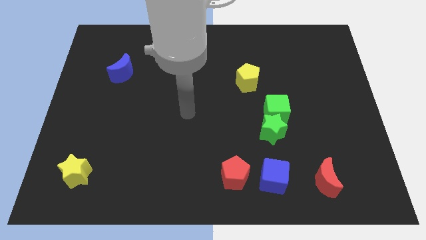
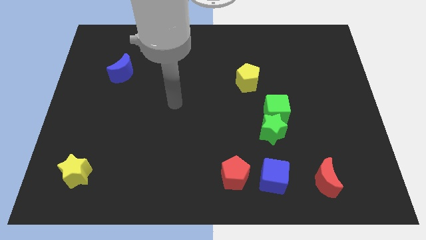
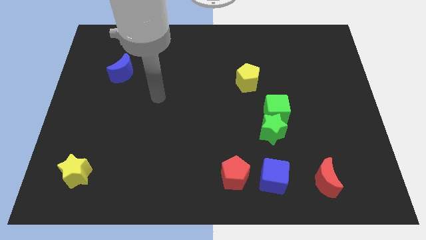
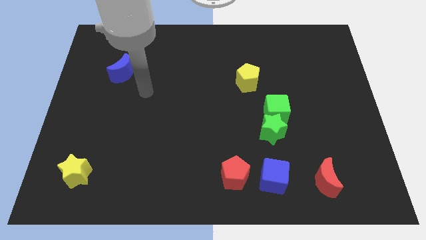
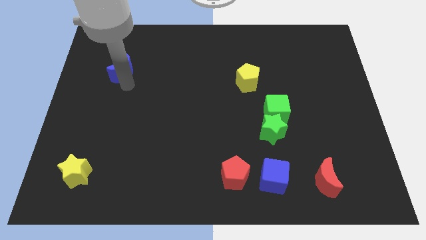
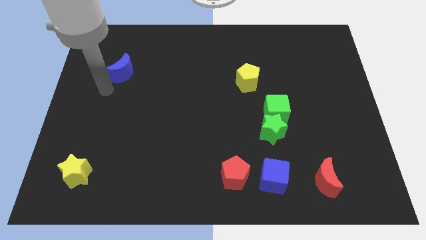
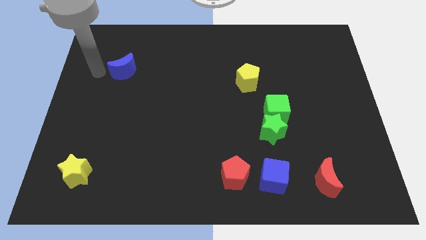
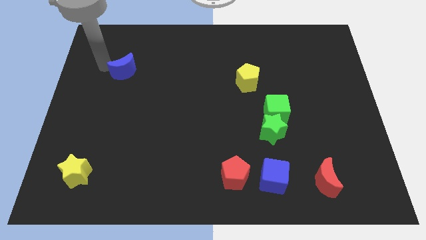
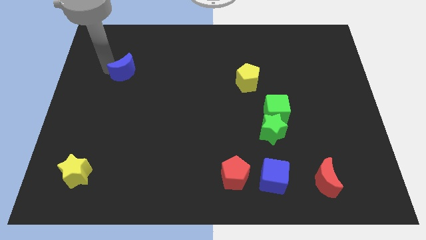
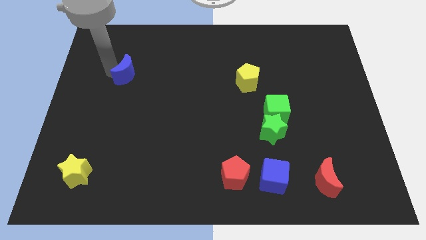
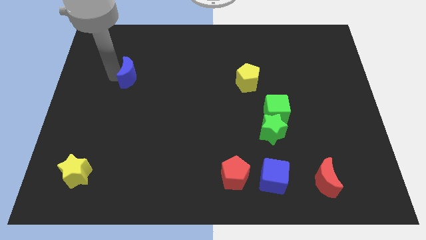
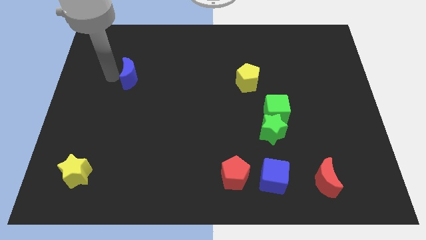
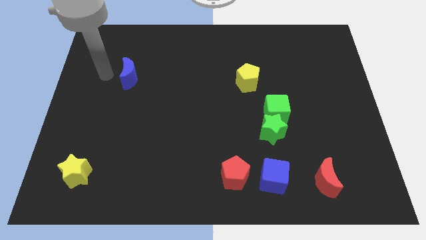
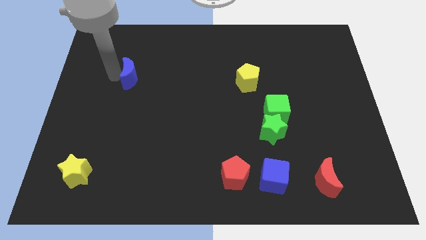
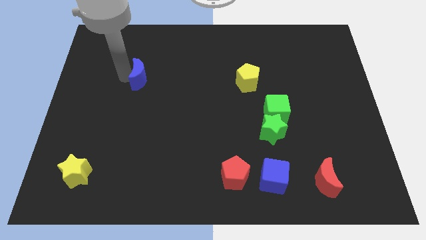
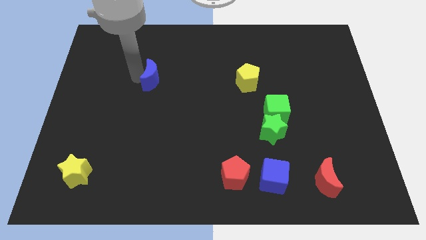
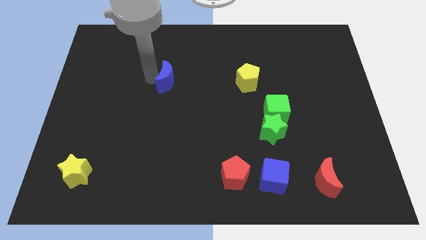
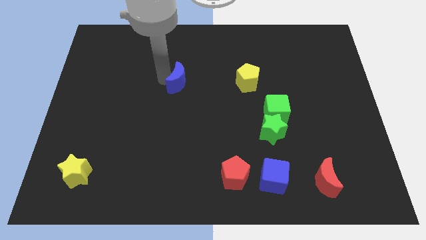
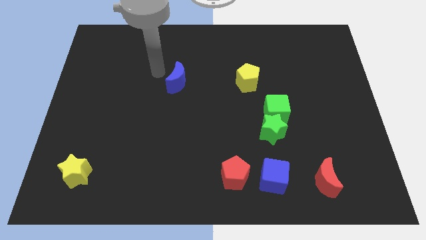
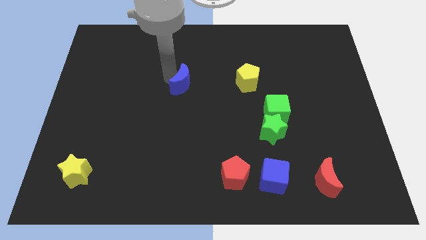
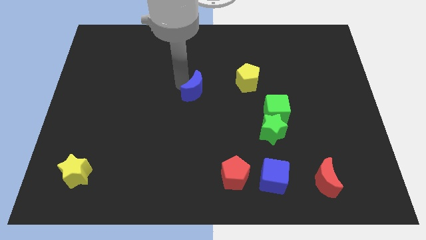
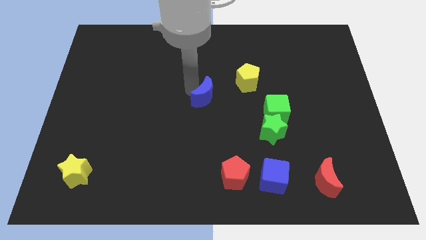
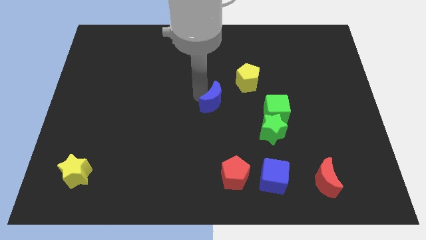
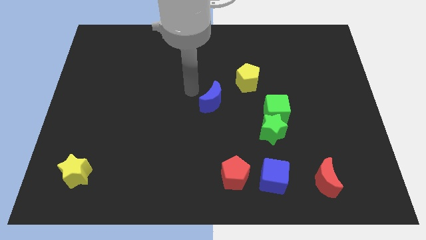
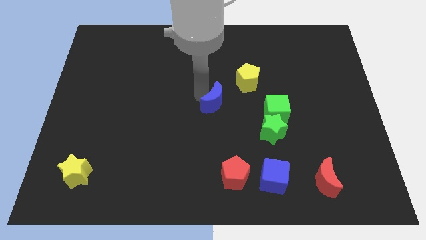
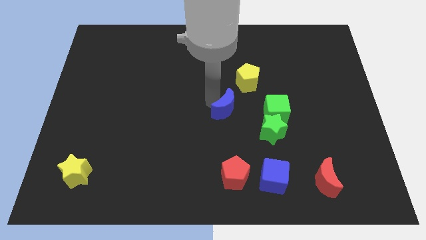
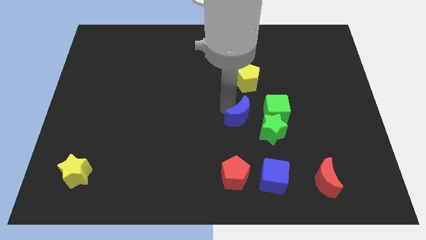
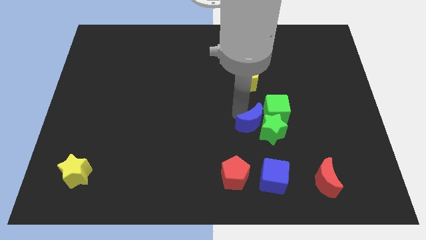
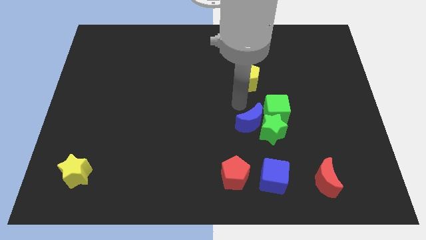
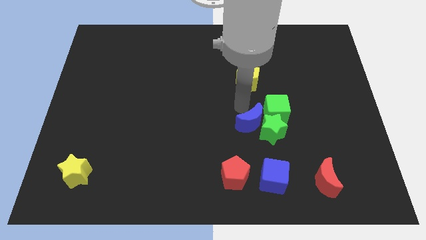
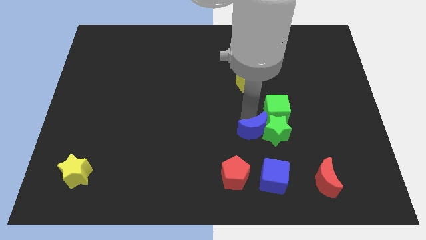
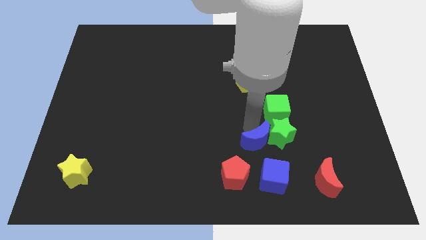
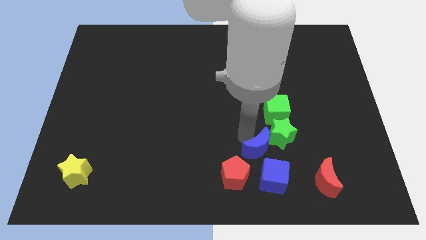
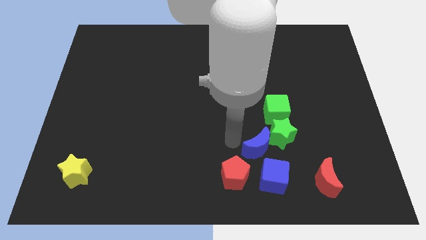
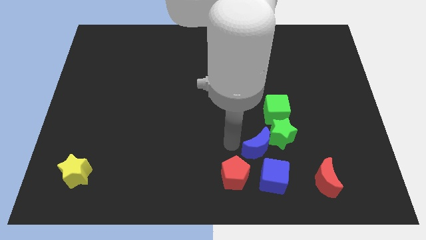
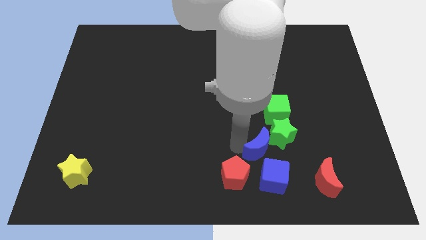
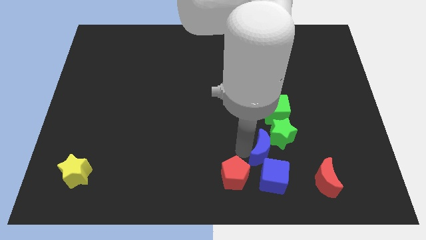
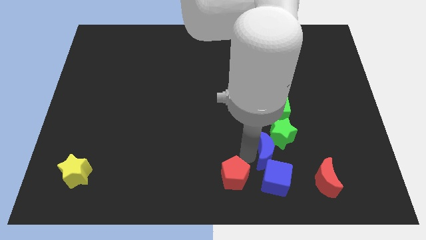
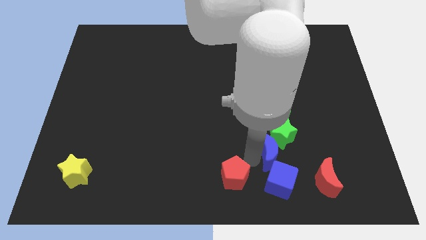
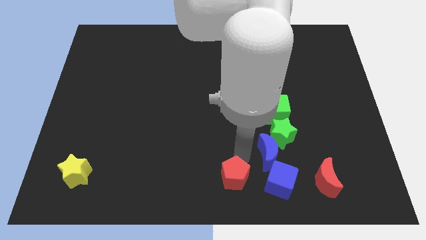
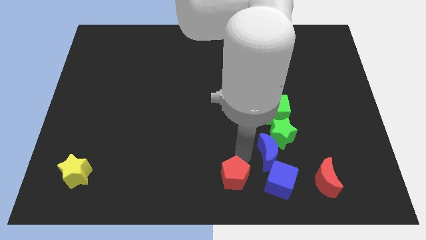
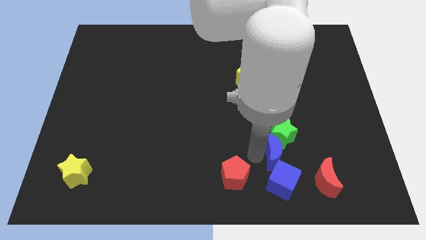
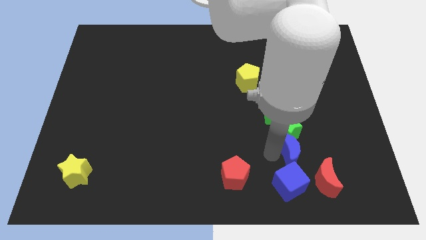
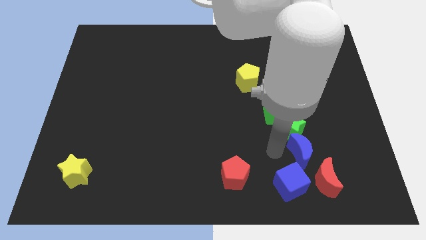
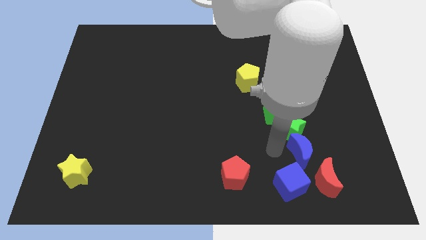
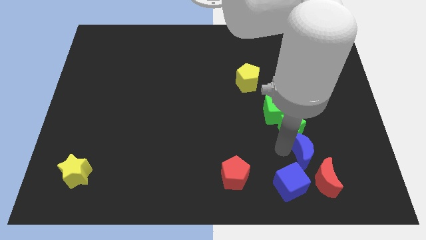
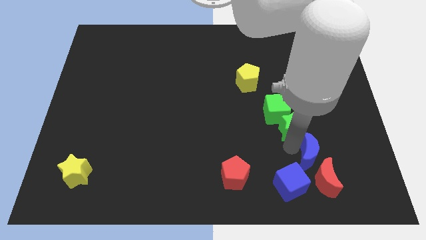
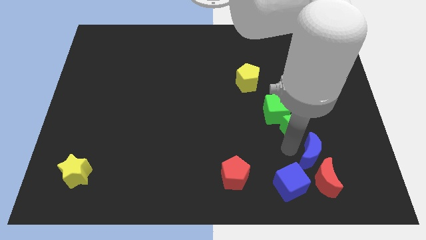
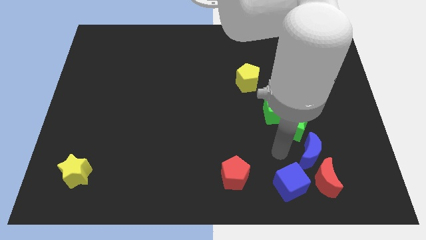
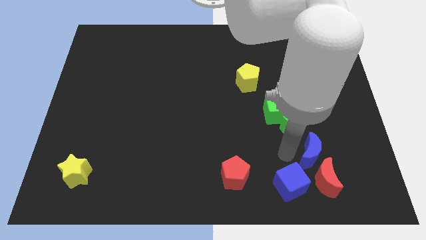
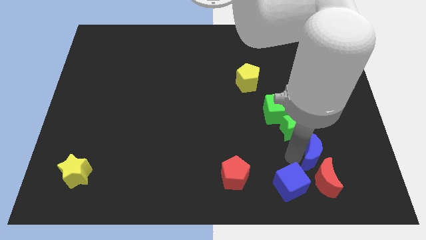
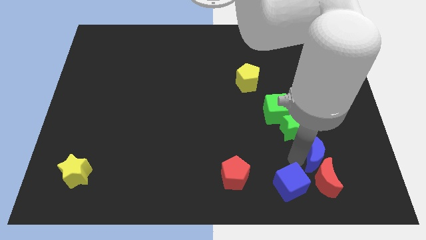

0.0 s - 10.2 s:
push the blue moon diagonally up and to the right of the red moon

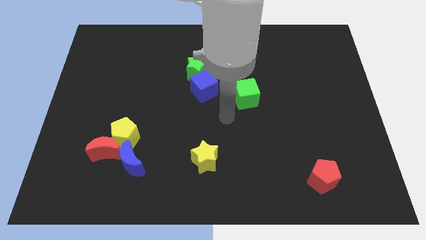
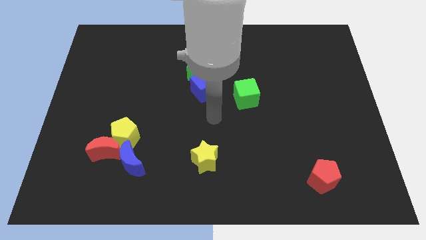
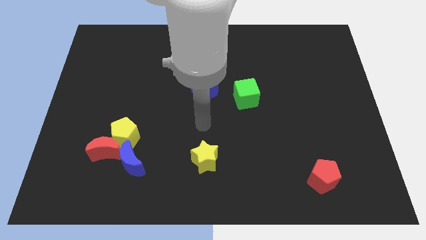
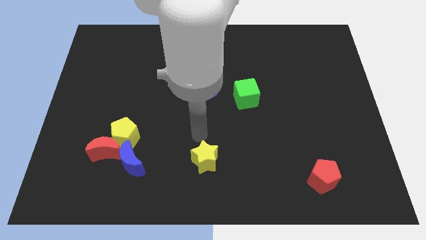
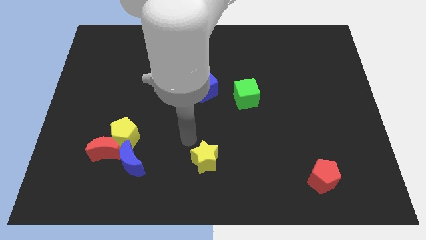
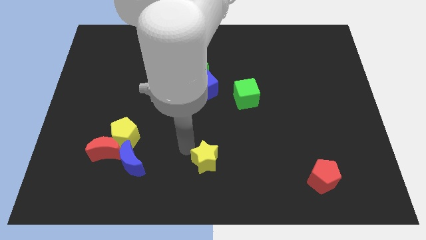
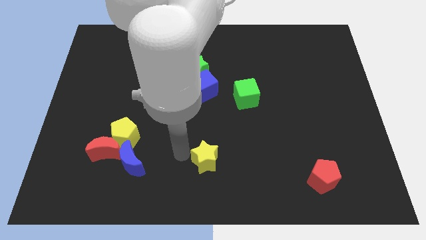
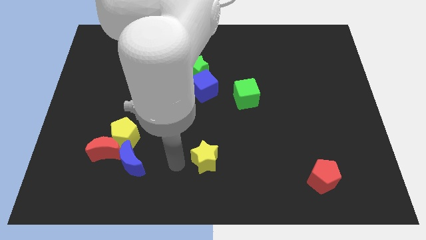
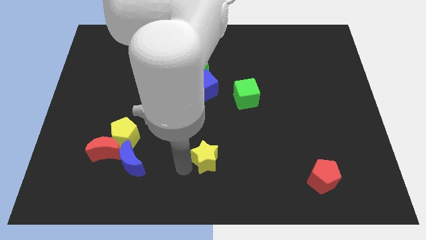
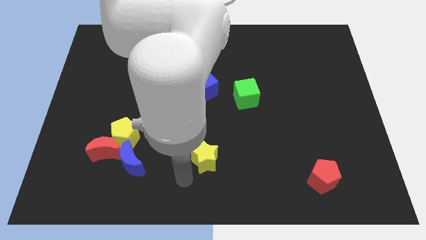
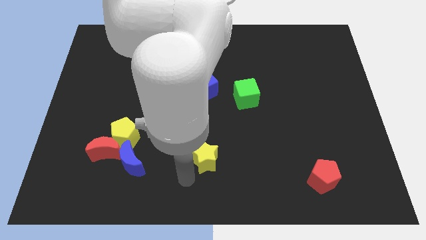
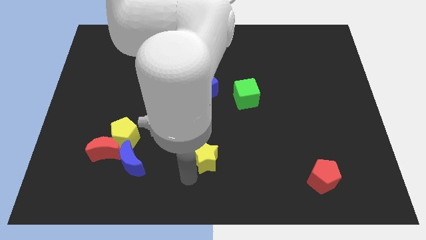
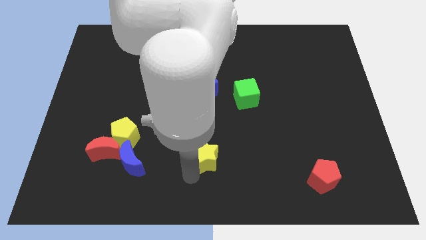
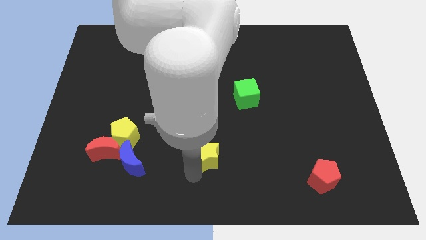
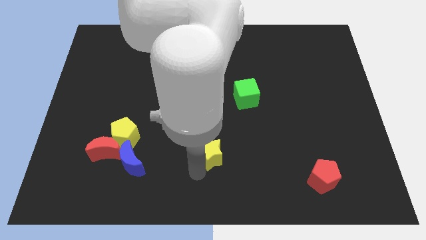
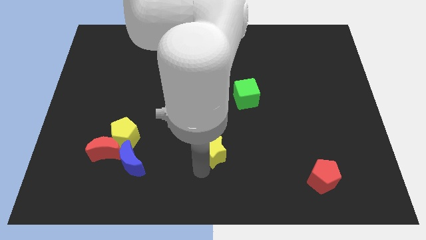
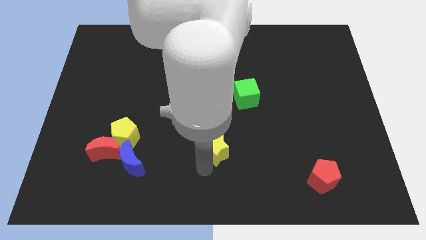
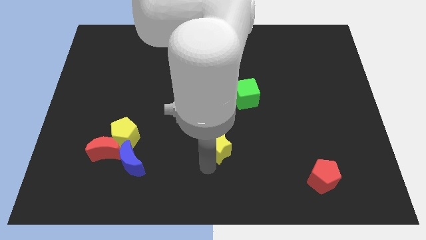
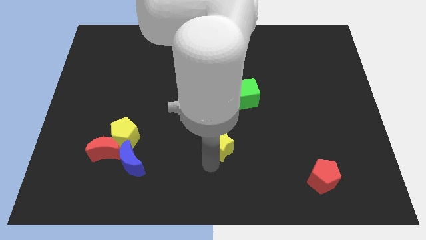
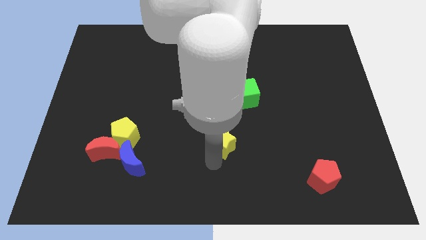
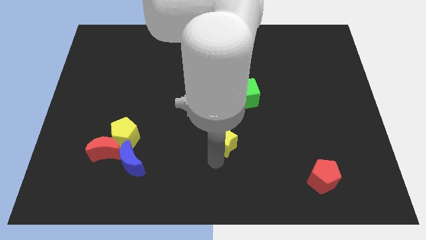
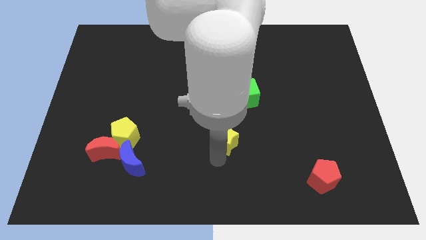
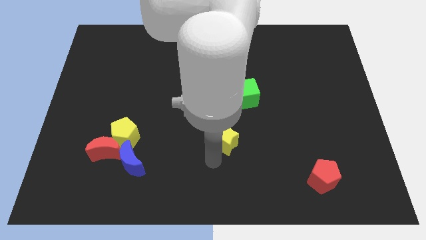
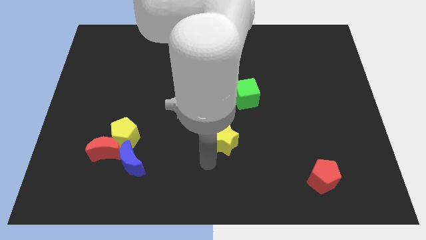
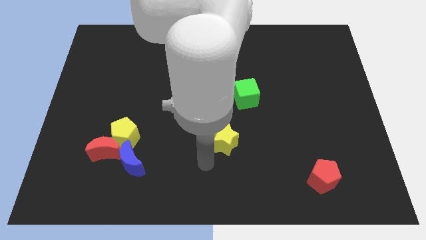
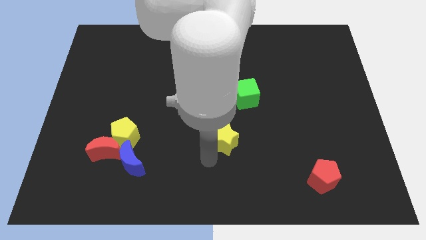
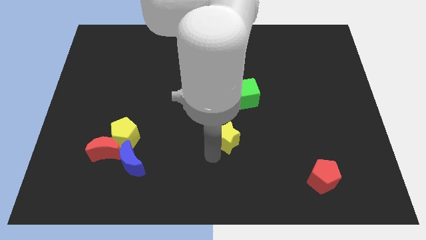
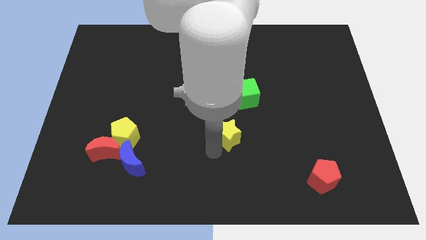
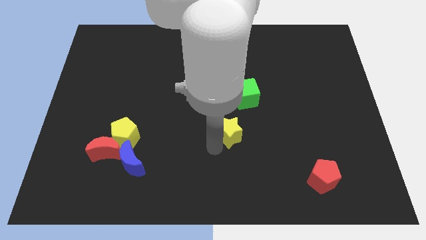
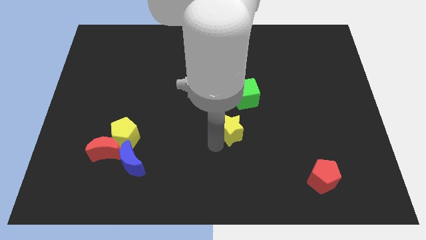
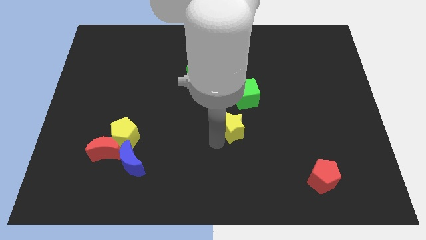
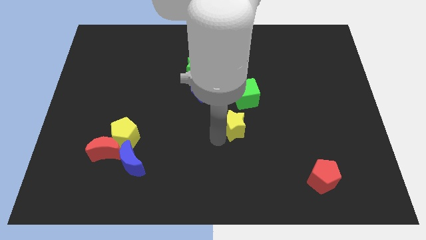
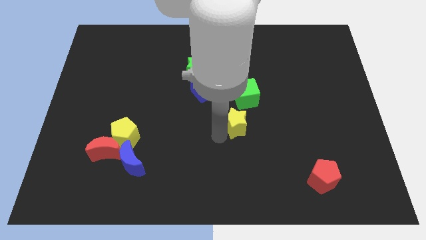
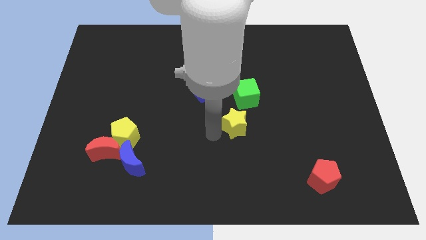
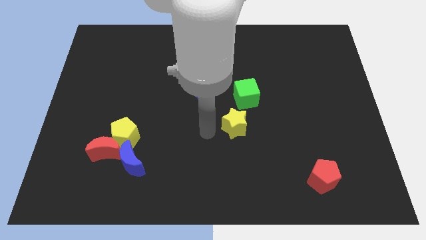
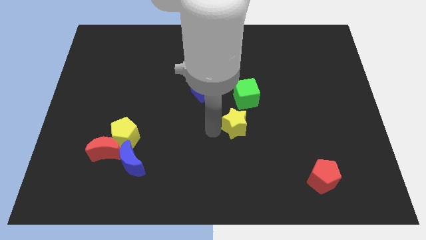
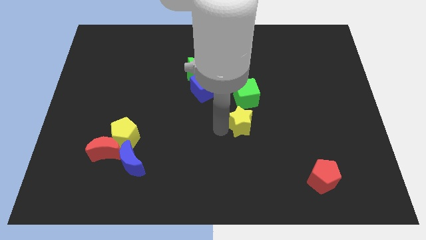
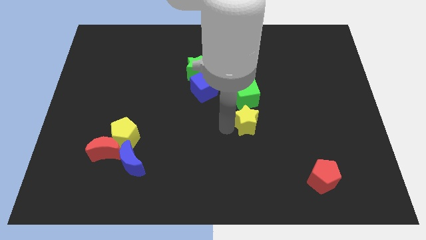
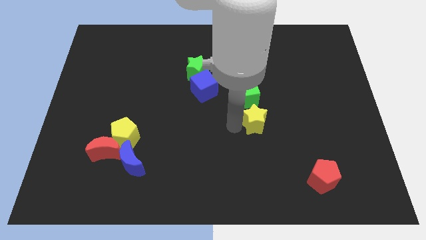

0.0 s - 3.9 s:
slide the yellow star diagonally down and to the right of the green cube
